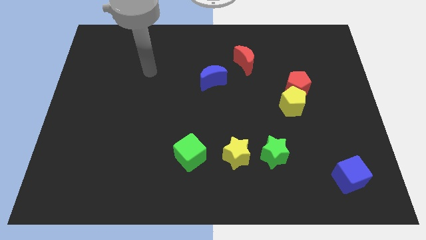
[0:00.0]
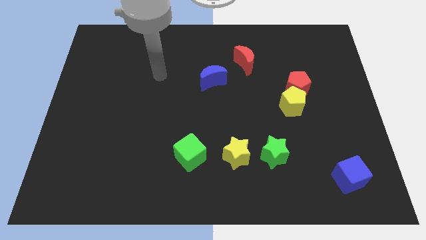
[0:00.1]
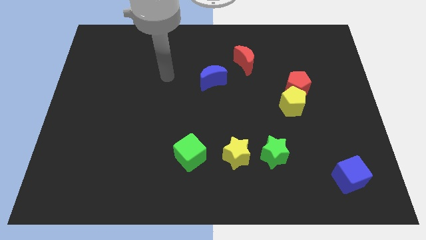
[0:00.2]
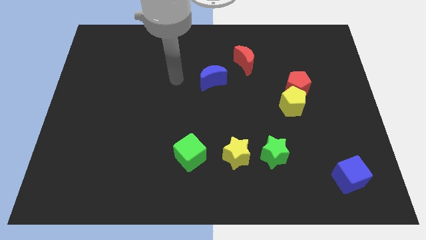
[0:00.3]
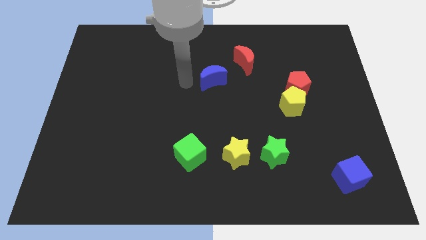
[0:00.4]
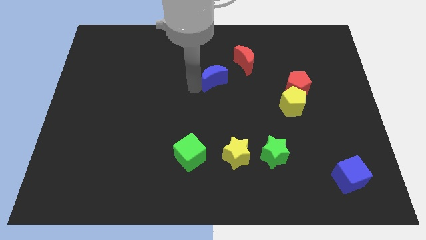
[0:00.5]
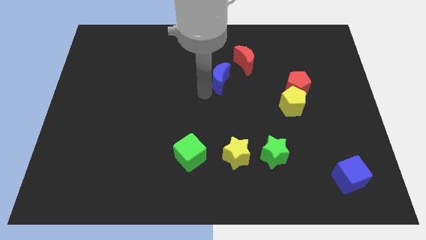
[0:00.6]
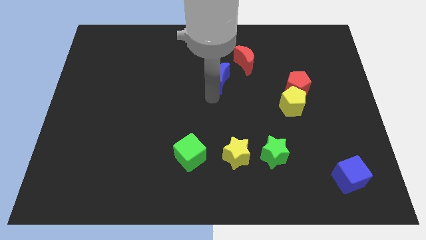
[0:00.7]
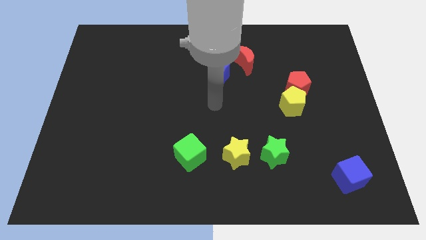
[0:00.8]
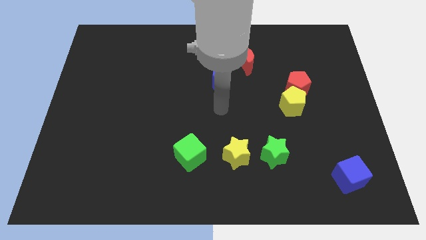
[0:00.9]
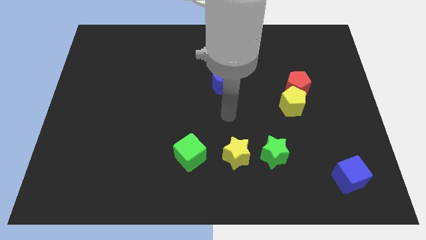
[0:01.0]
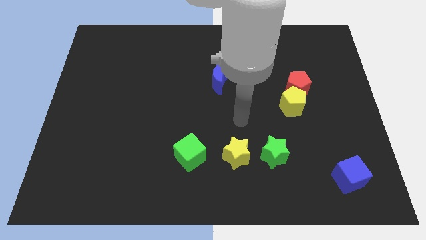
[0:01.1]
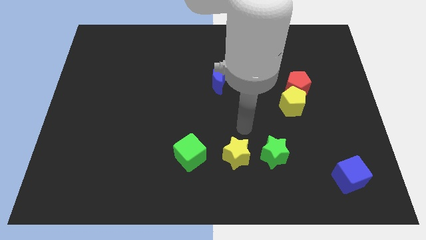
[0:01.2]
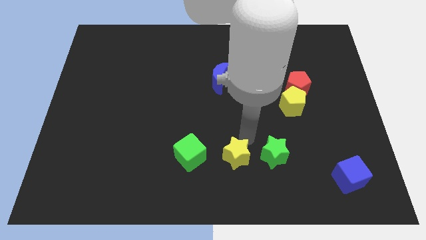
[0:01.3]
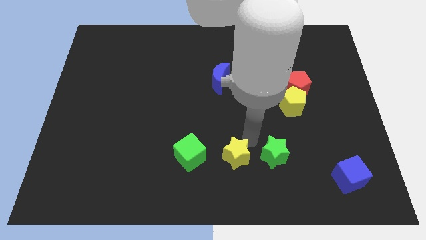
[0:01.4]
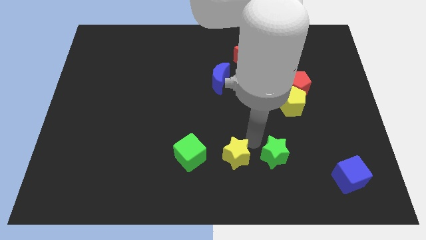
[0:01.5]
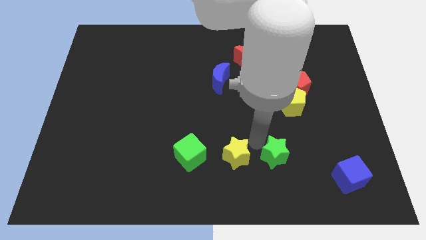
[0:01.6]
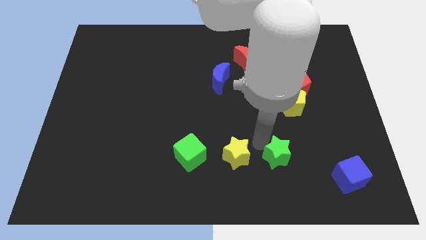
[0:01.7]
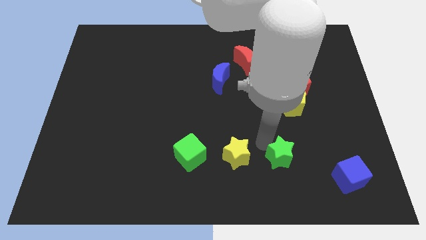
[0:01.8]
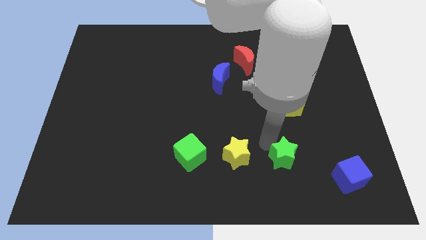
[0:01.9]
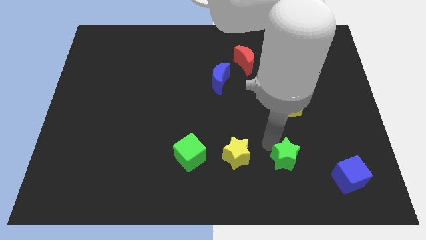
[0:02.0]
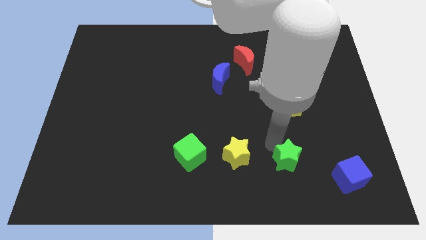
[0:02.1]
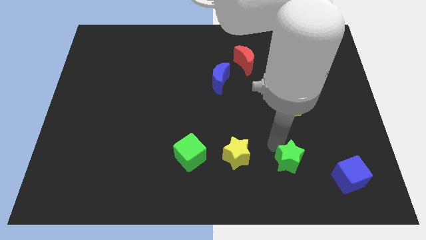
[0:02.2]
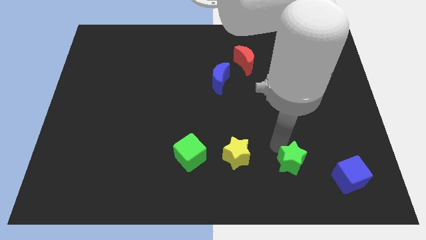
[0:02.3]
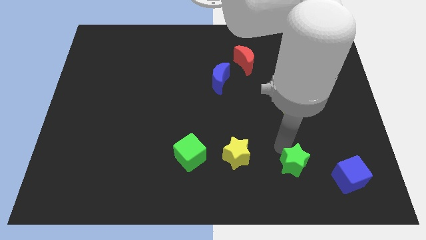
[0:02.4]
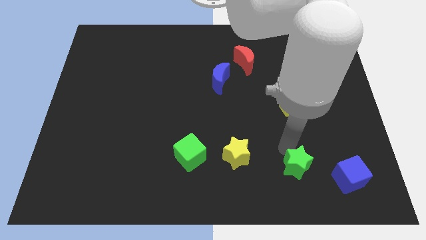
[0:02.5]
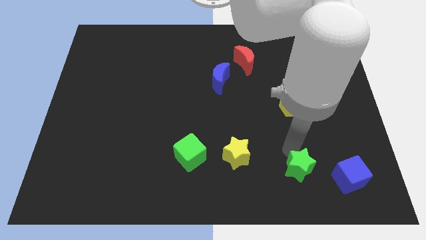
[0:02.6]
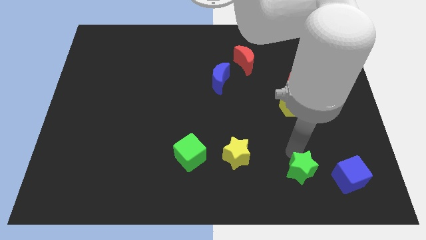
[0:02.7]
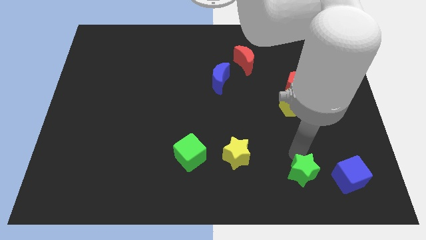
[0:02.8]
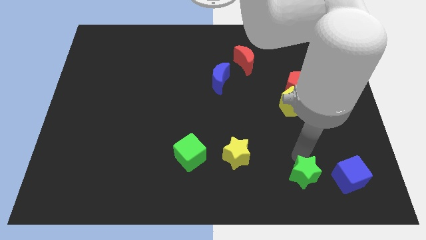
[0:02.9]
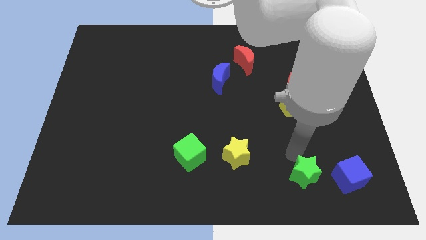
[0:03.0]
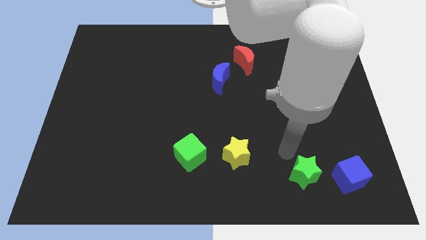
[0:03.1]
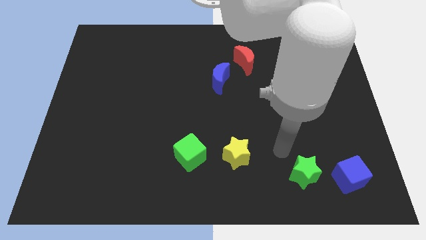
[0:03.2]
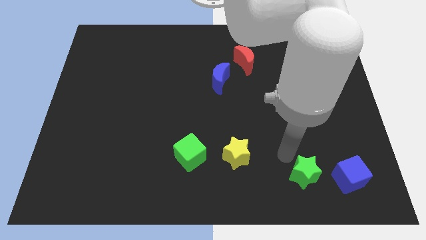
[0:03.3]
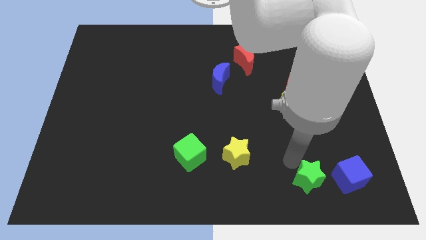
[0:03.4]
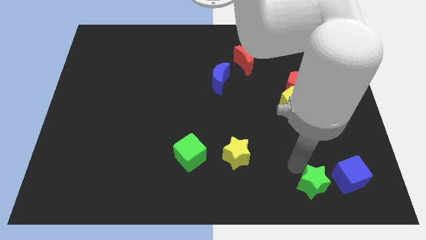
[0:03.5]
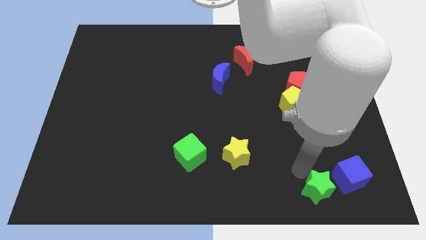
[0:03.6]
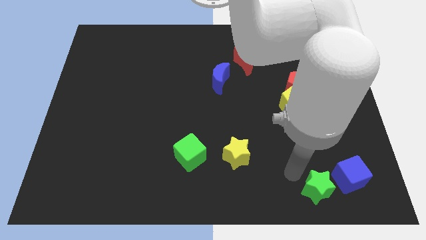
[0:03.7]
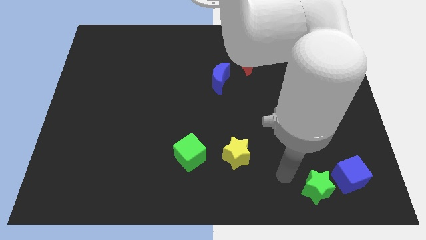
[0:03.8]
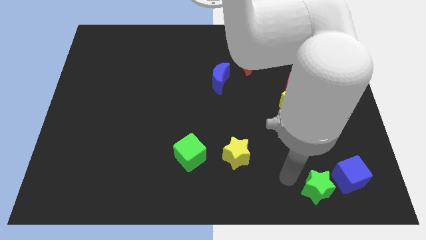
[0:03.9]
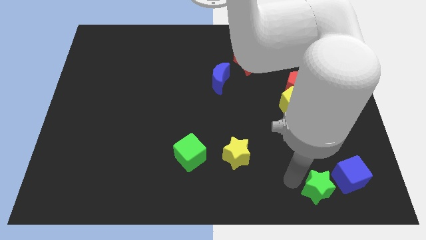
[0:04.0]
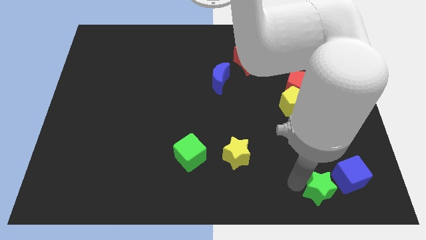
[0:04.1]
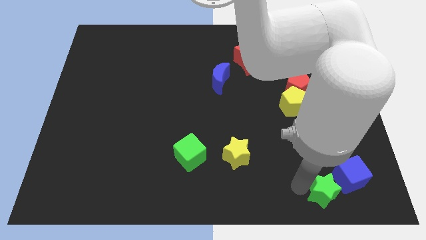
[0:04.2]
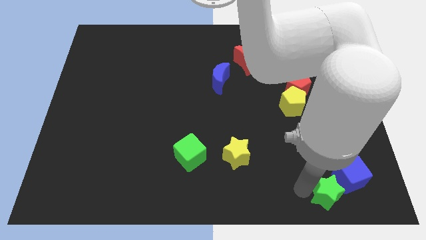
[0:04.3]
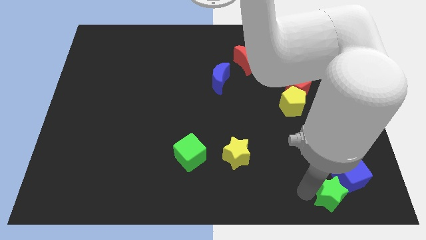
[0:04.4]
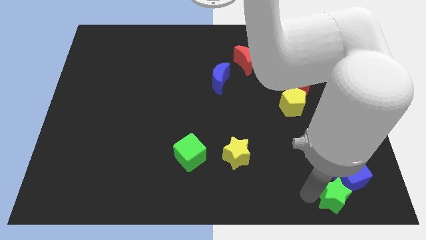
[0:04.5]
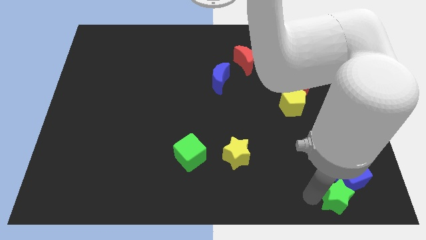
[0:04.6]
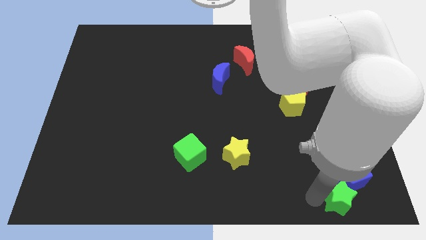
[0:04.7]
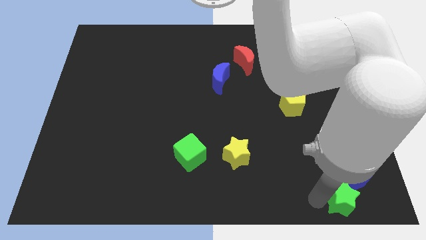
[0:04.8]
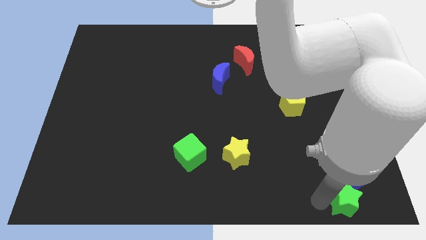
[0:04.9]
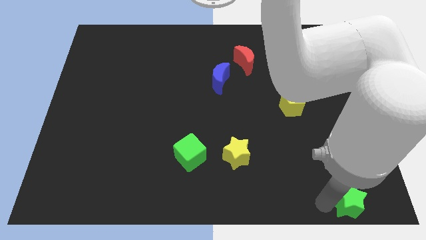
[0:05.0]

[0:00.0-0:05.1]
put the green star to the bottom right of the board

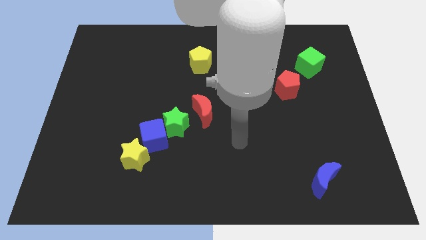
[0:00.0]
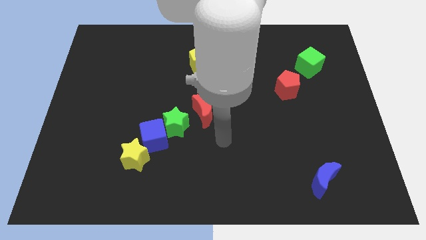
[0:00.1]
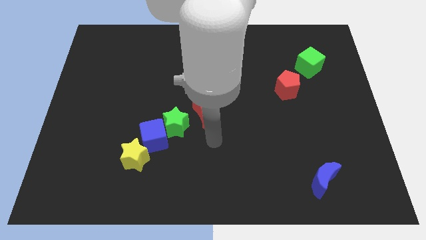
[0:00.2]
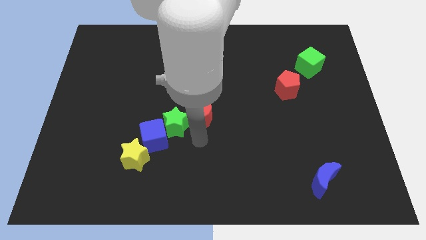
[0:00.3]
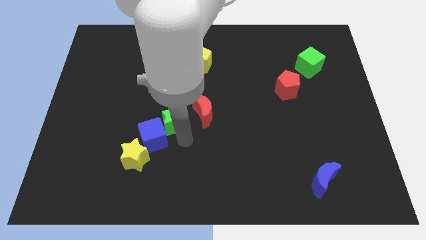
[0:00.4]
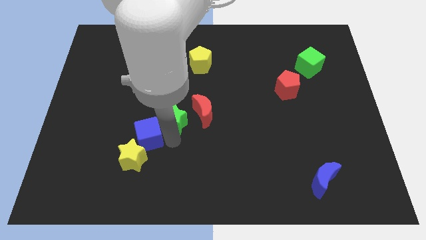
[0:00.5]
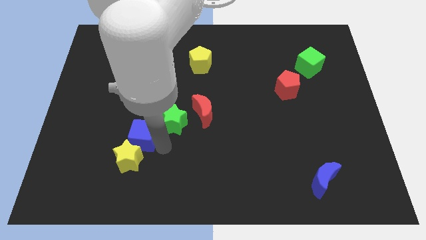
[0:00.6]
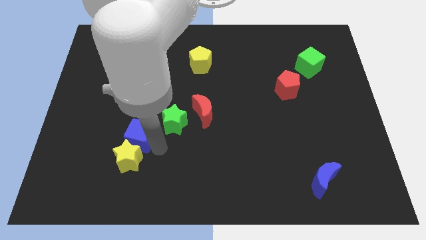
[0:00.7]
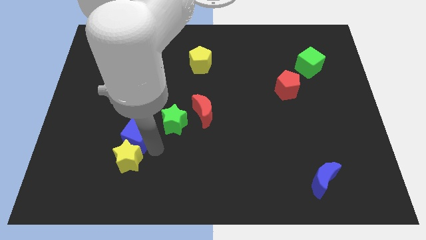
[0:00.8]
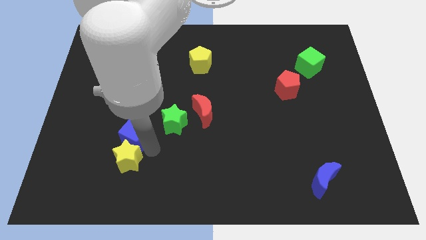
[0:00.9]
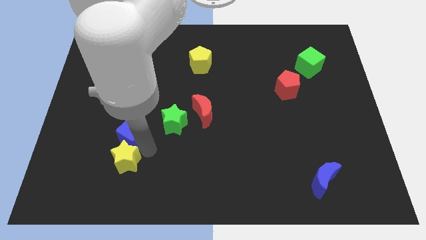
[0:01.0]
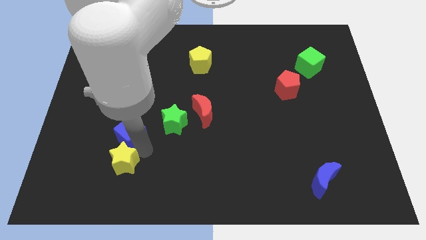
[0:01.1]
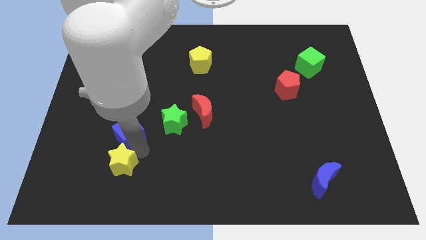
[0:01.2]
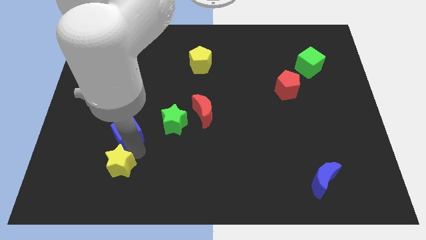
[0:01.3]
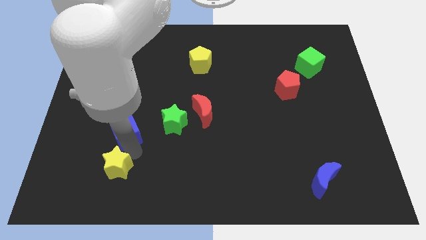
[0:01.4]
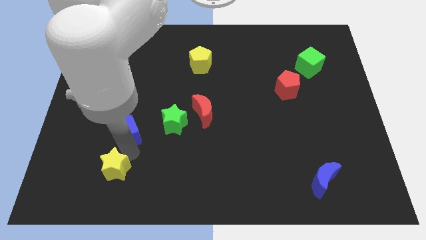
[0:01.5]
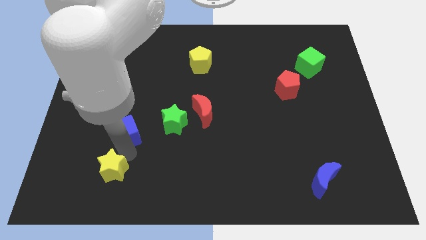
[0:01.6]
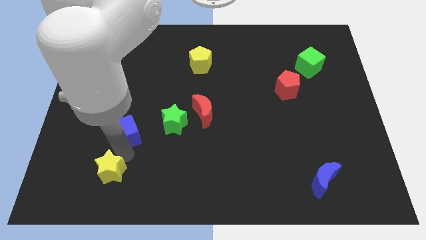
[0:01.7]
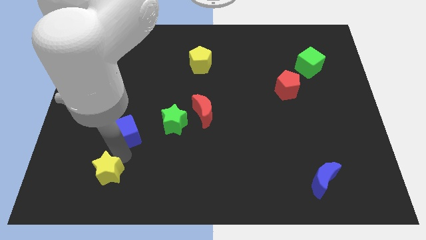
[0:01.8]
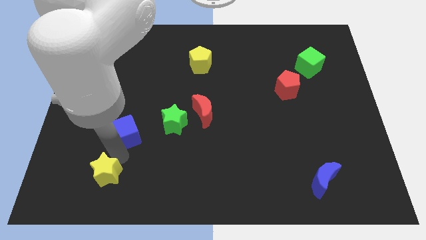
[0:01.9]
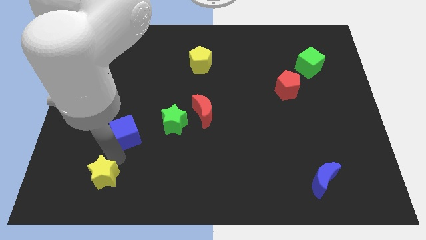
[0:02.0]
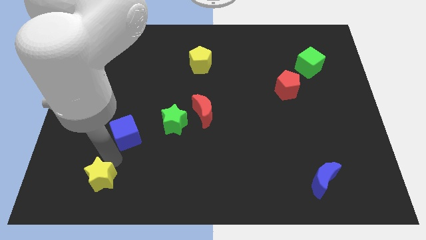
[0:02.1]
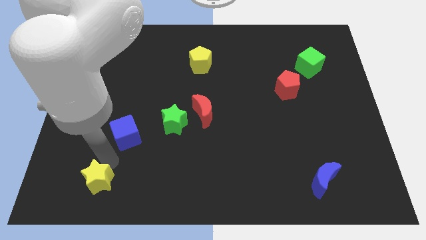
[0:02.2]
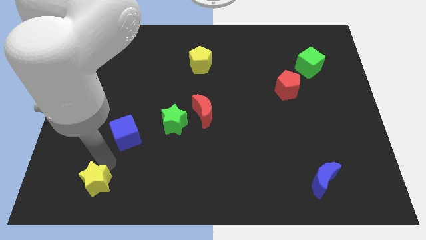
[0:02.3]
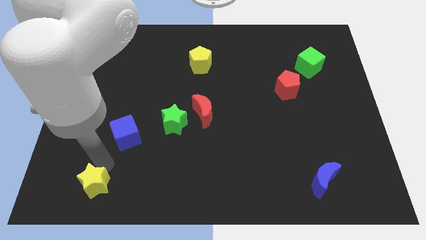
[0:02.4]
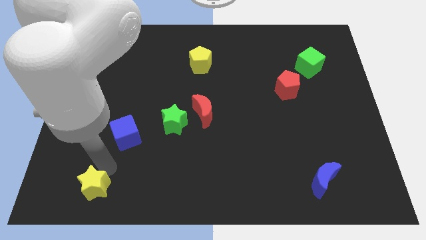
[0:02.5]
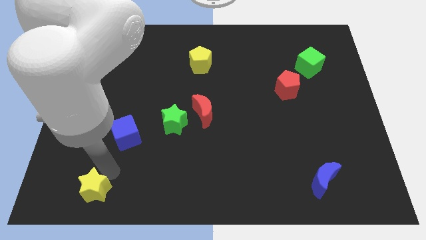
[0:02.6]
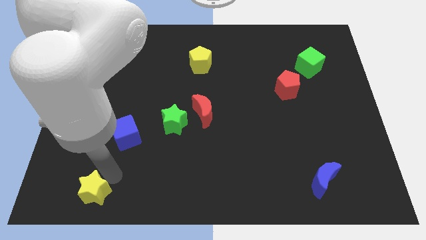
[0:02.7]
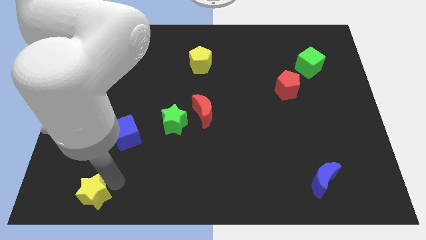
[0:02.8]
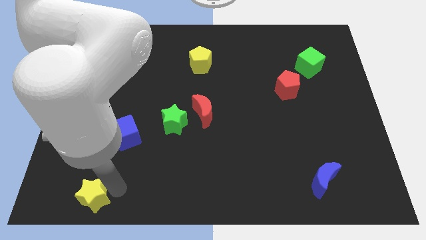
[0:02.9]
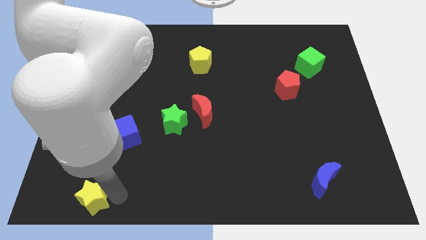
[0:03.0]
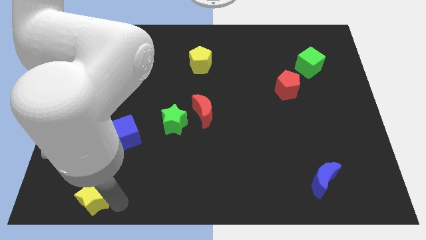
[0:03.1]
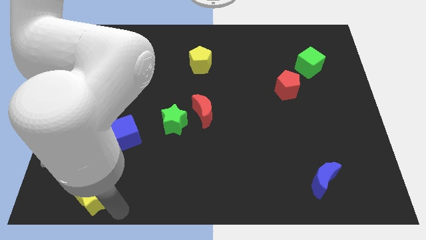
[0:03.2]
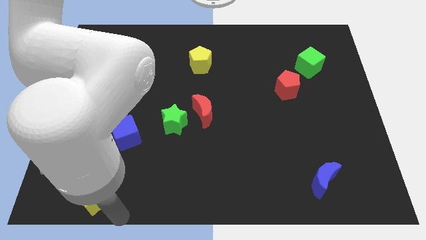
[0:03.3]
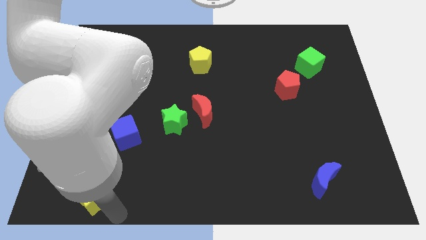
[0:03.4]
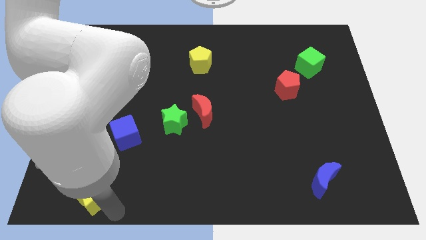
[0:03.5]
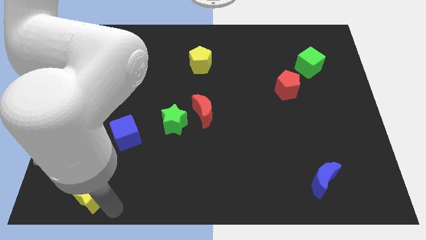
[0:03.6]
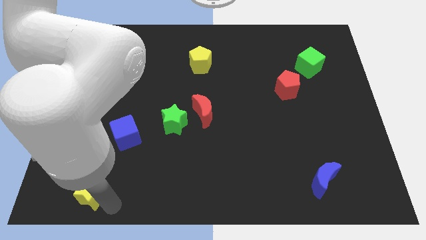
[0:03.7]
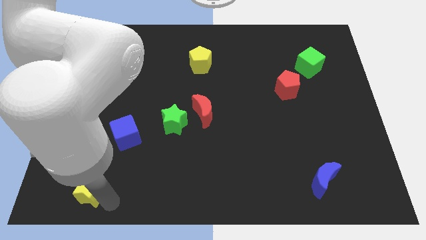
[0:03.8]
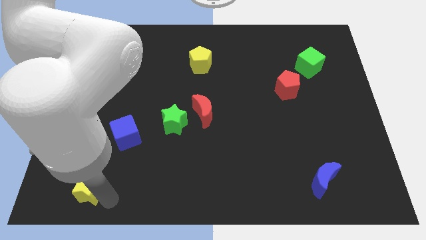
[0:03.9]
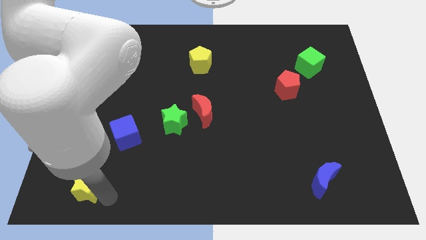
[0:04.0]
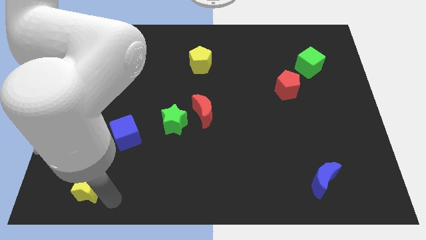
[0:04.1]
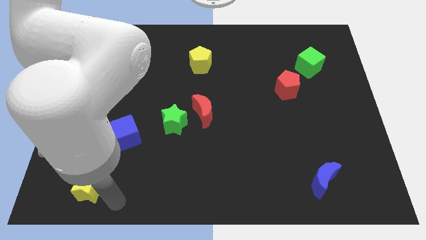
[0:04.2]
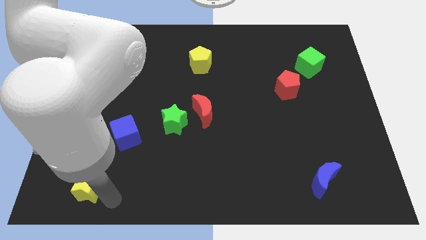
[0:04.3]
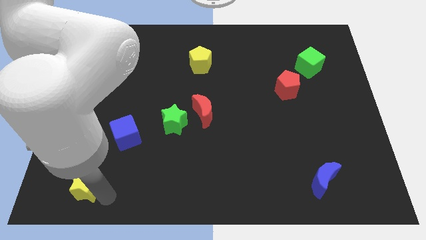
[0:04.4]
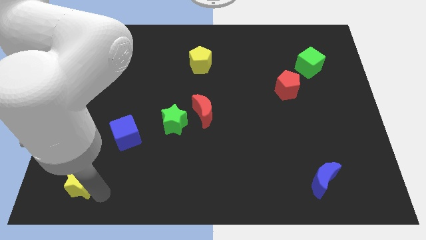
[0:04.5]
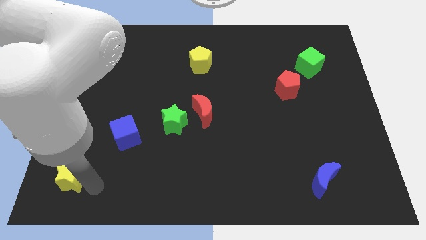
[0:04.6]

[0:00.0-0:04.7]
push the yellow star to the bottom left corner
